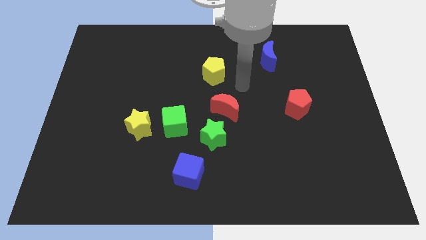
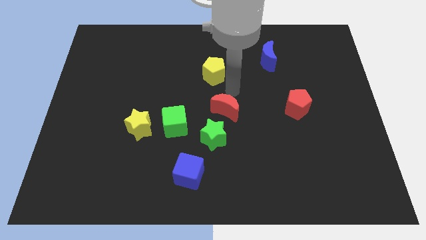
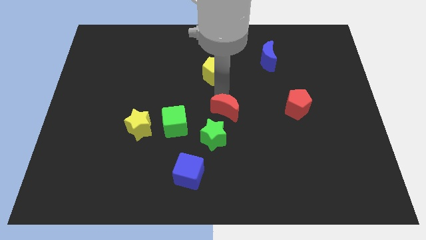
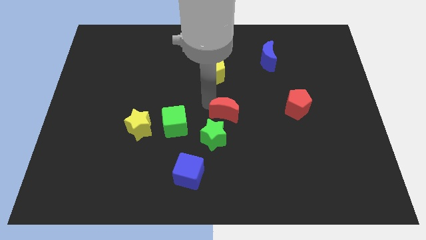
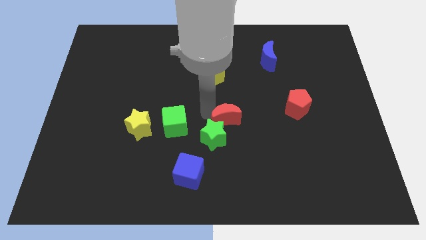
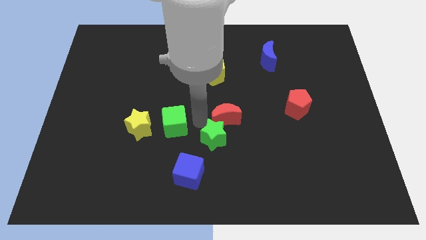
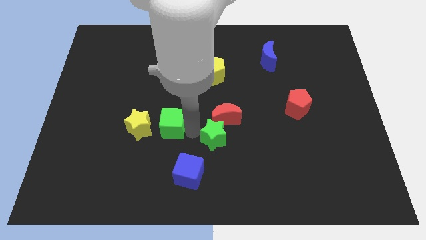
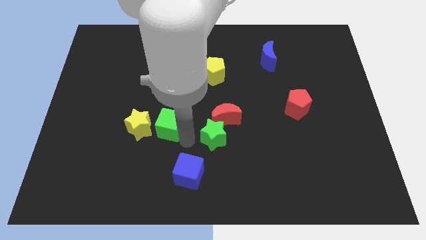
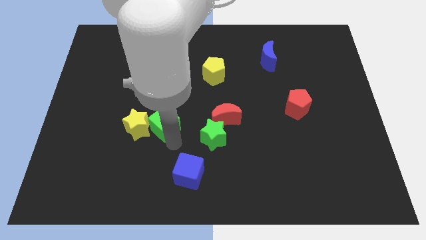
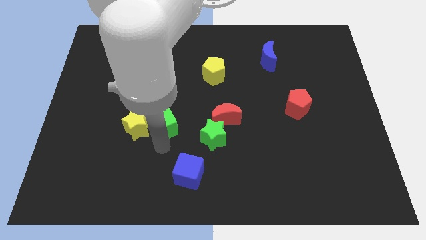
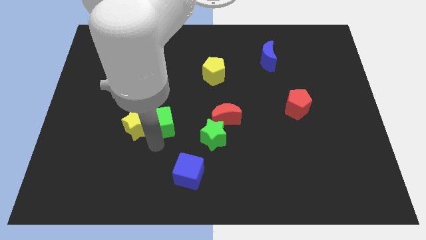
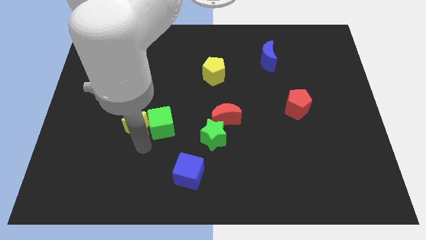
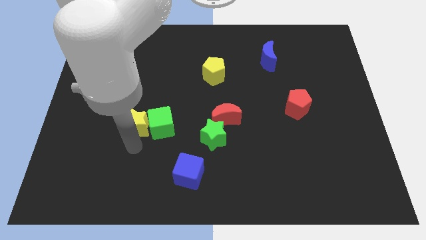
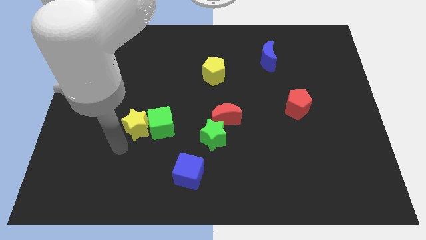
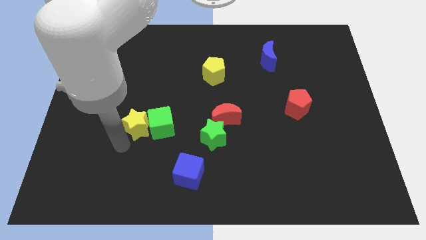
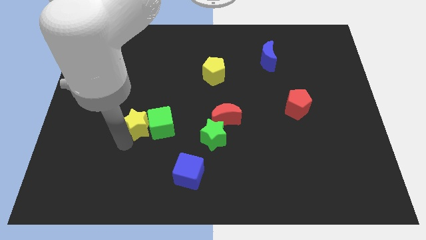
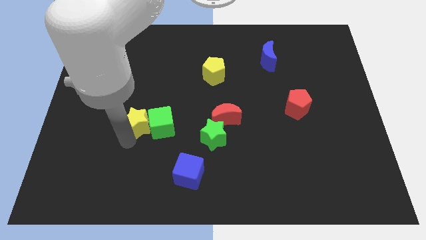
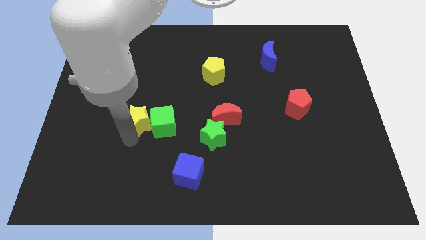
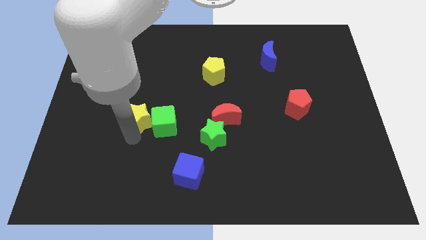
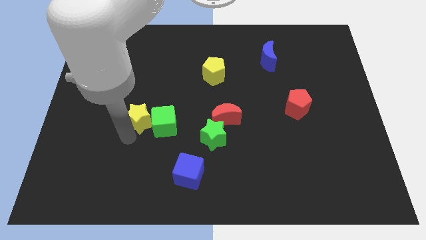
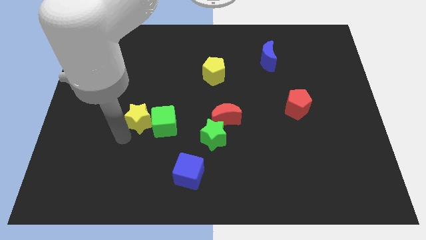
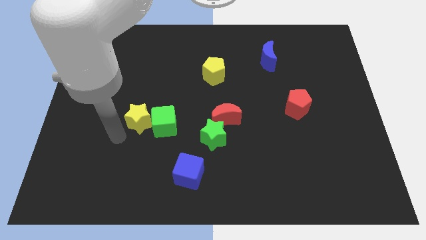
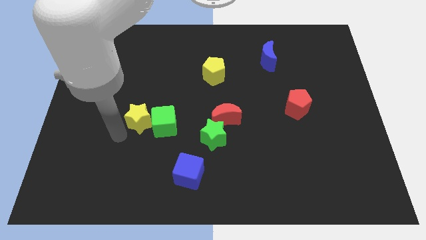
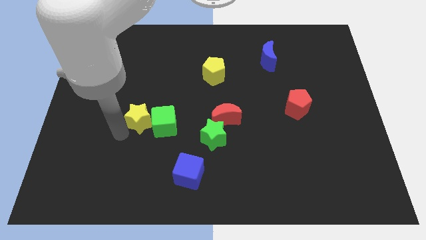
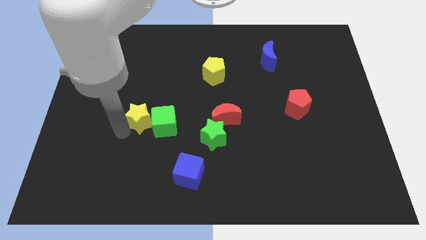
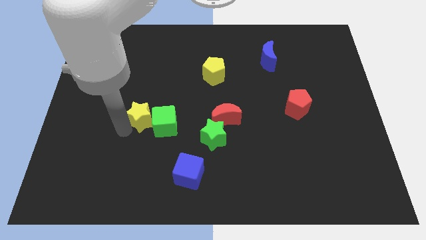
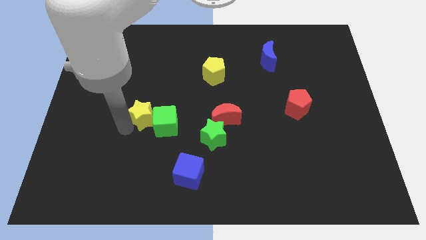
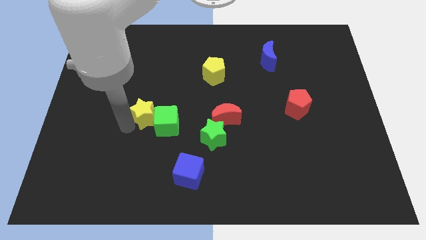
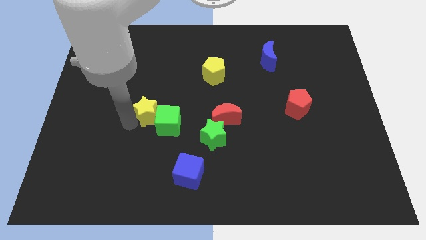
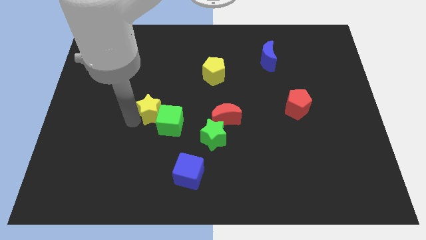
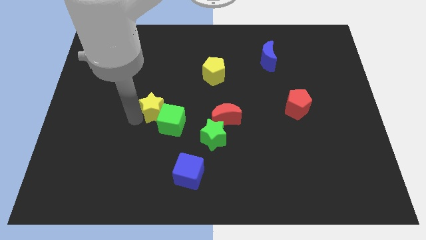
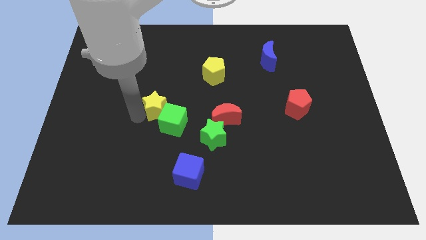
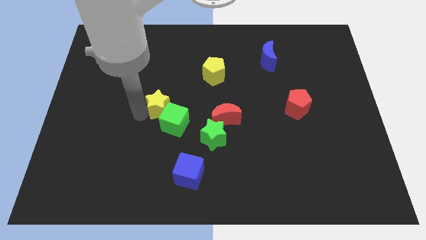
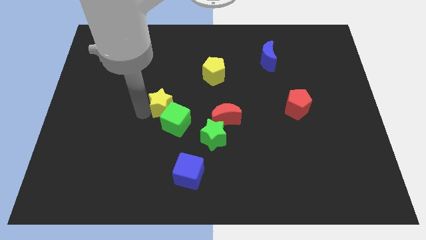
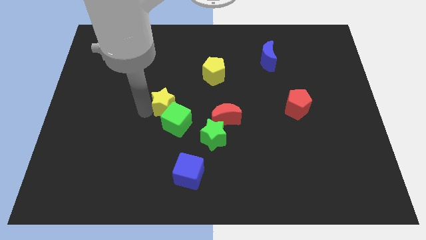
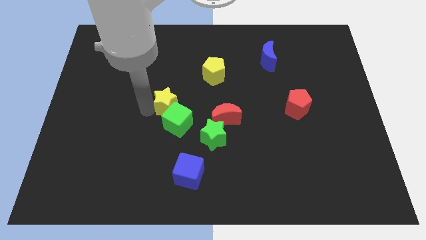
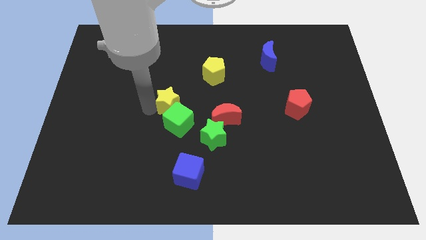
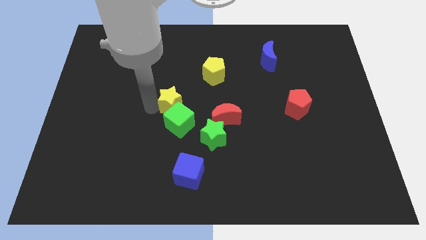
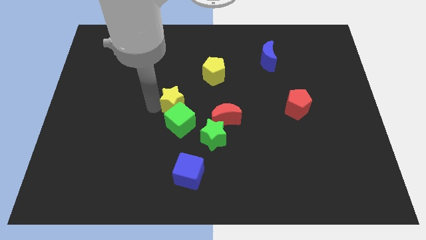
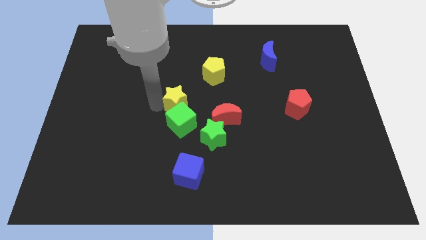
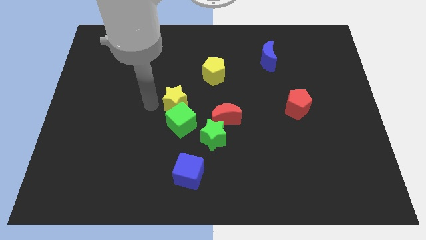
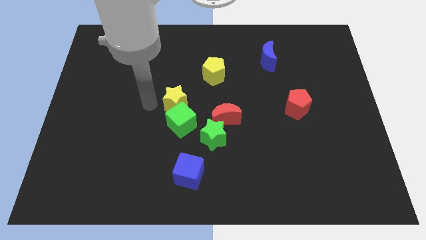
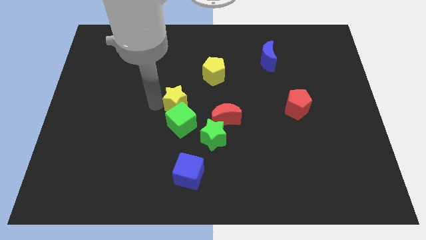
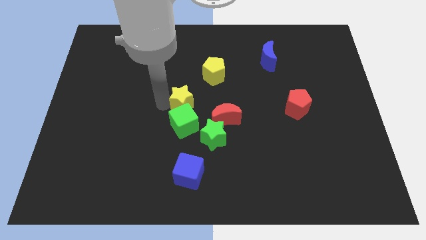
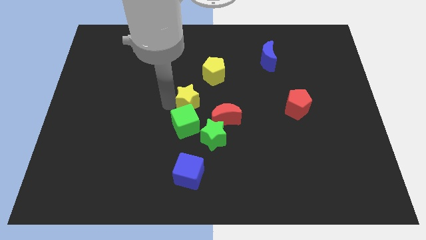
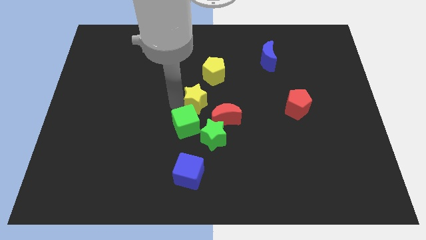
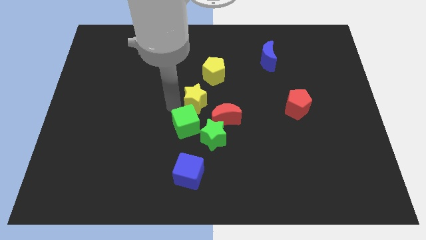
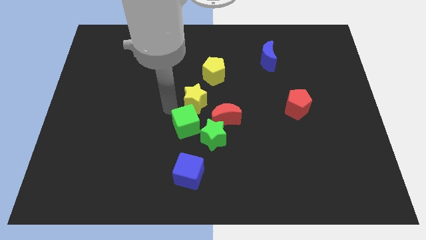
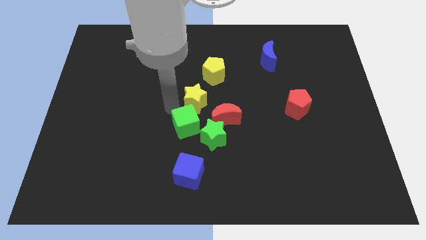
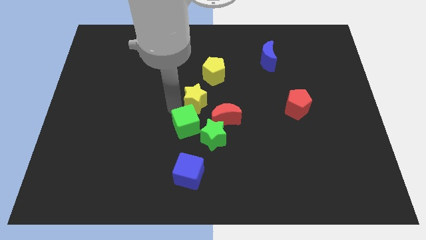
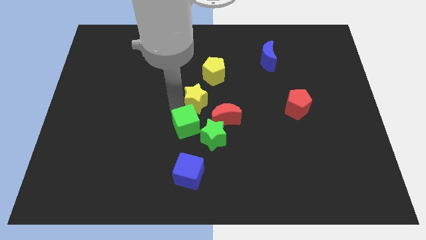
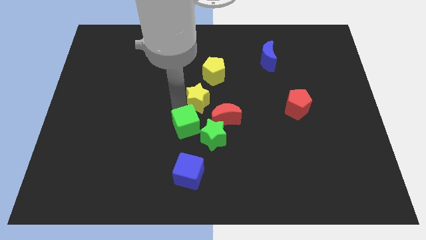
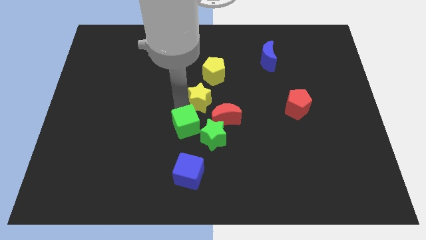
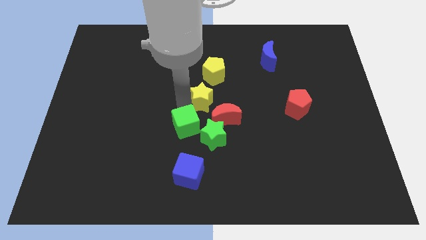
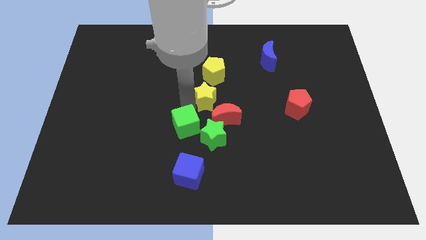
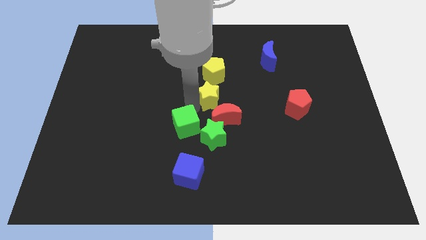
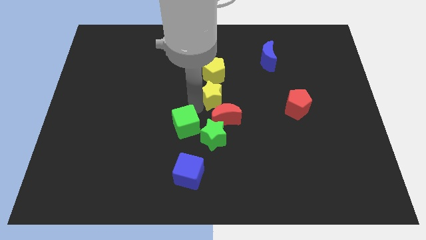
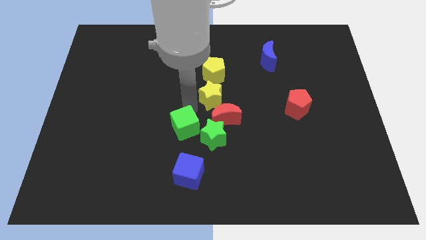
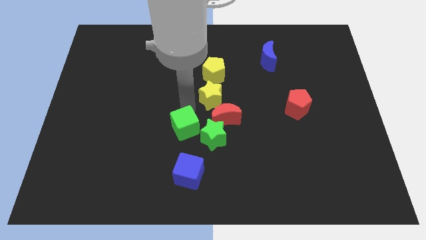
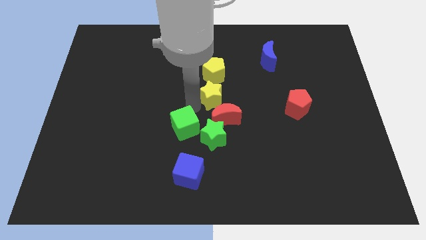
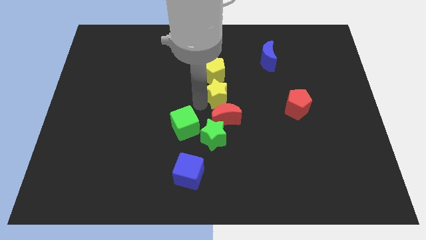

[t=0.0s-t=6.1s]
slide the yellow star to the bottom right side of the yellow pentagon

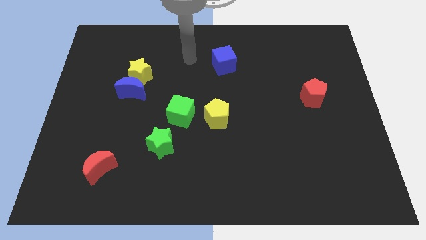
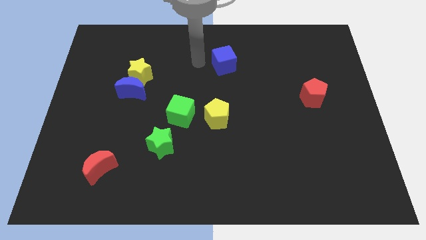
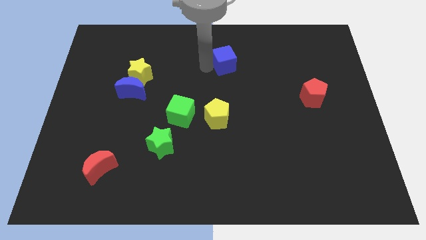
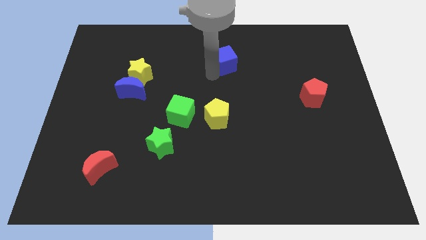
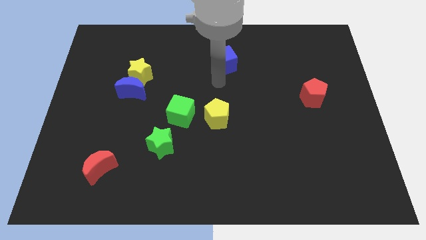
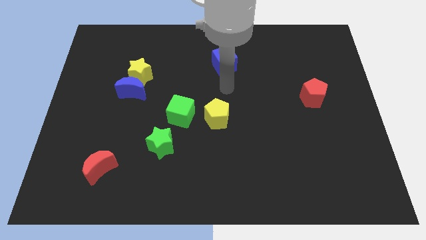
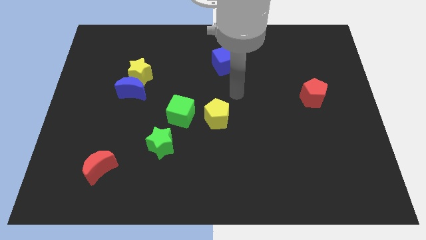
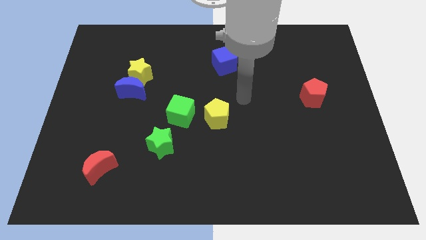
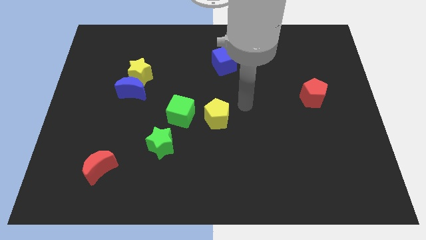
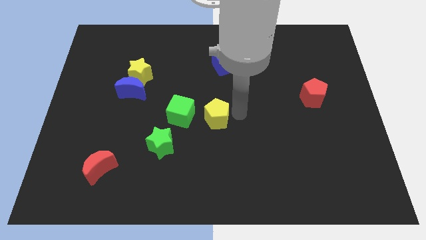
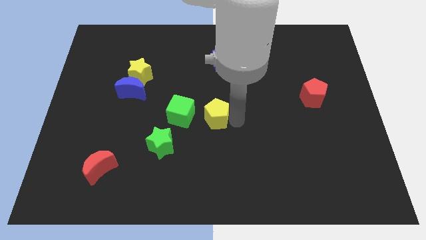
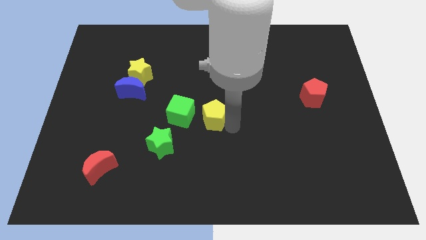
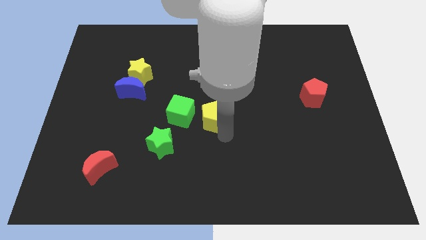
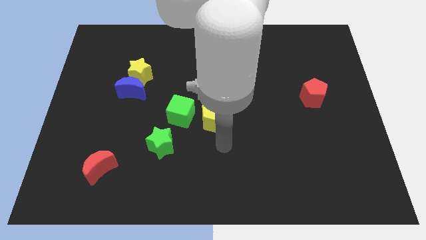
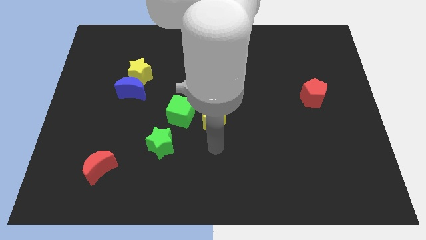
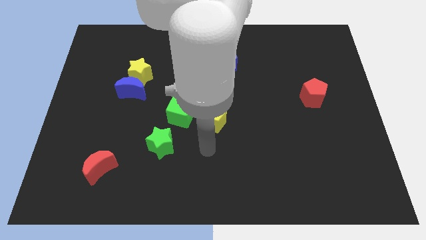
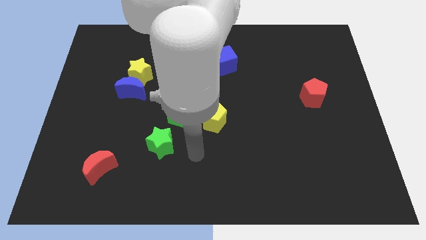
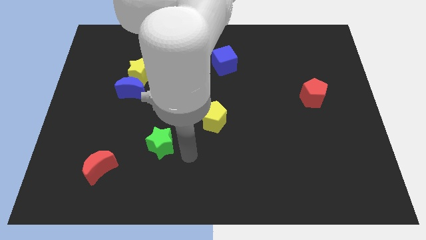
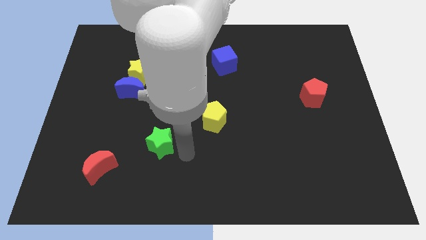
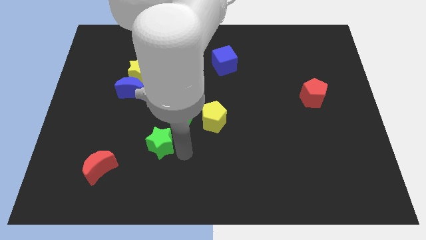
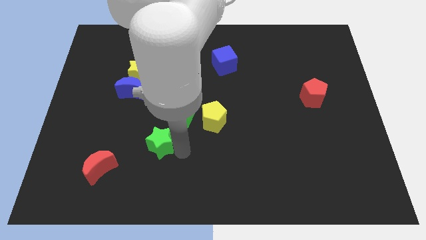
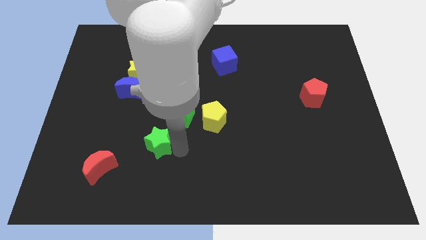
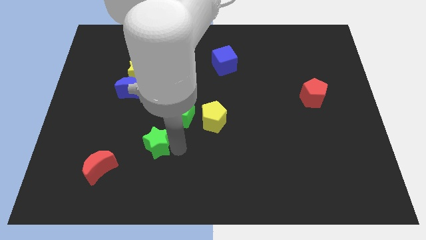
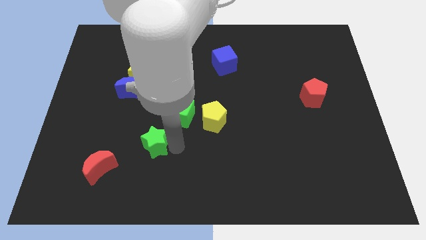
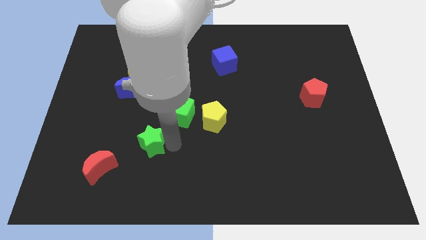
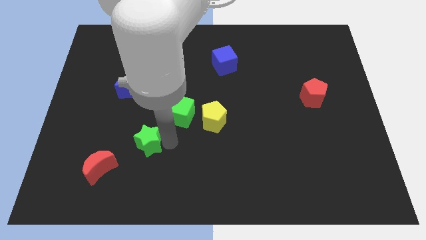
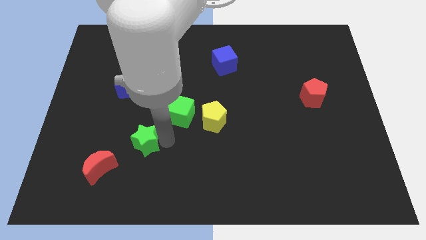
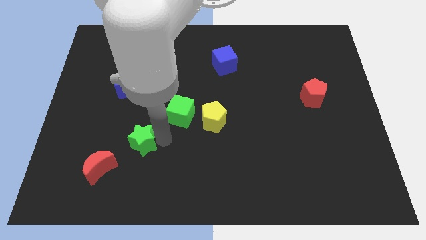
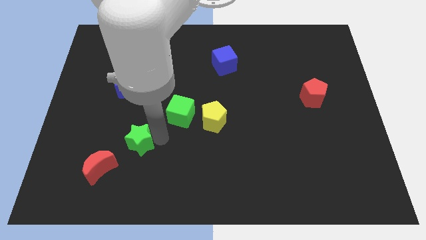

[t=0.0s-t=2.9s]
slide the green star to the bottom of the blue moon
